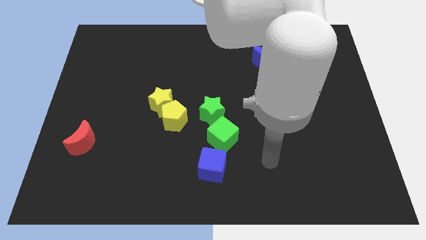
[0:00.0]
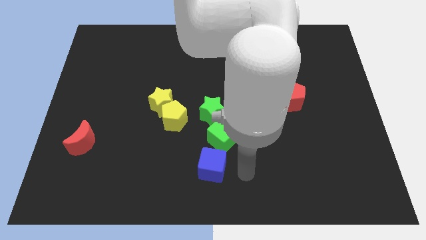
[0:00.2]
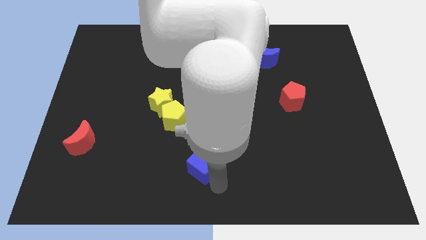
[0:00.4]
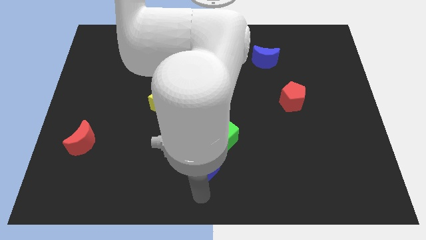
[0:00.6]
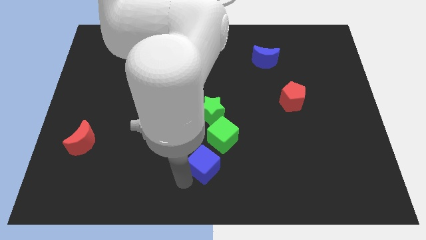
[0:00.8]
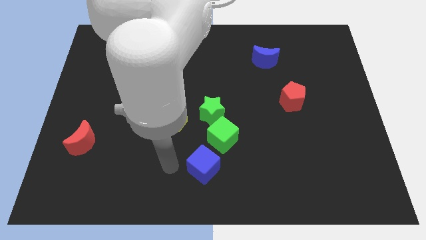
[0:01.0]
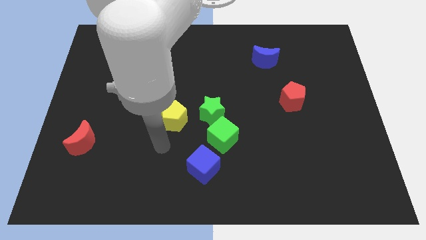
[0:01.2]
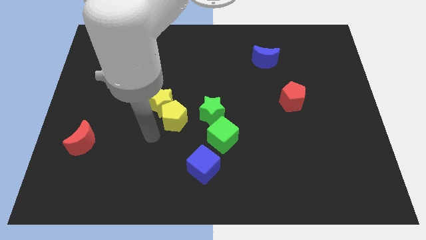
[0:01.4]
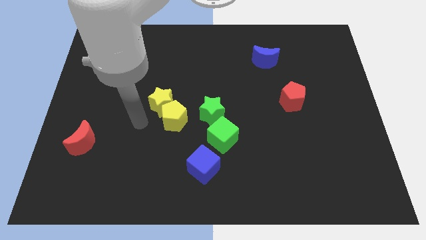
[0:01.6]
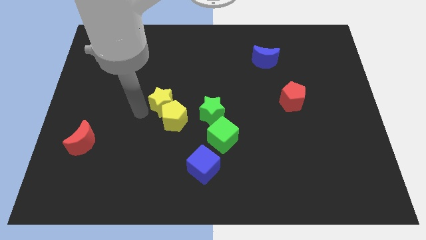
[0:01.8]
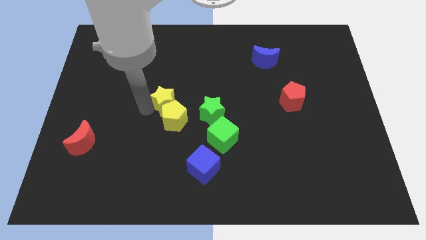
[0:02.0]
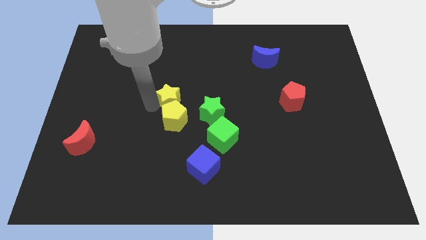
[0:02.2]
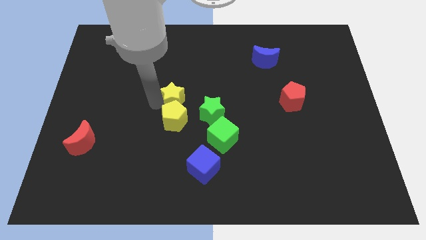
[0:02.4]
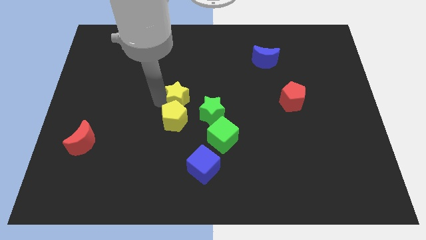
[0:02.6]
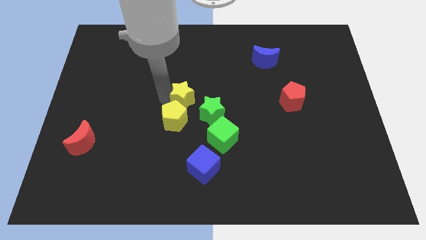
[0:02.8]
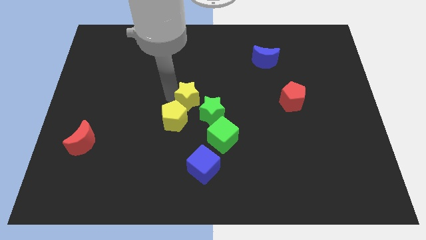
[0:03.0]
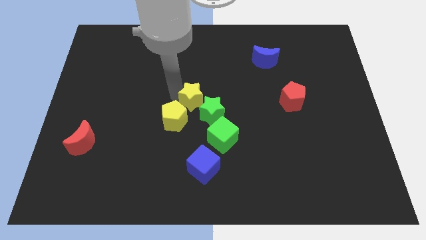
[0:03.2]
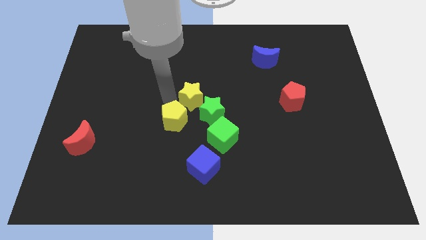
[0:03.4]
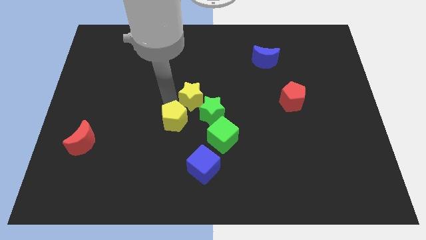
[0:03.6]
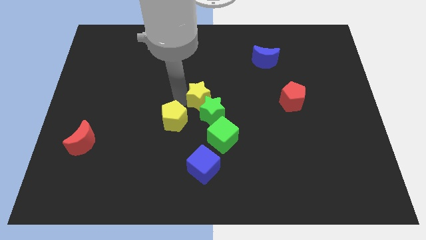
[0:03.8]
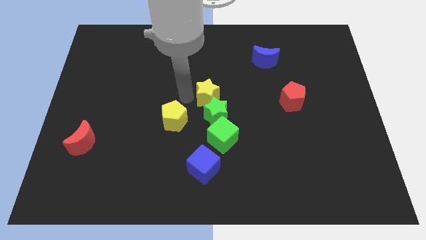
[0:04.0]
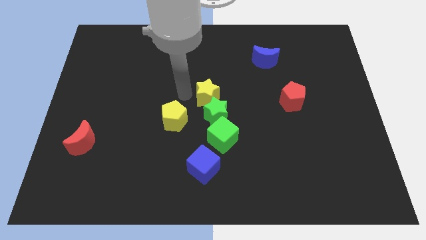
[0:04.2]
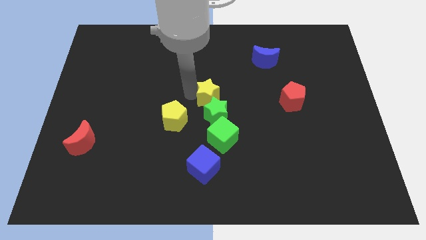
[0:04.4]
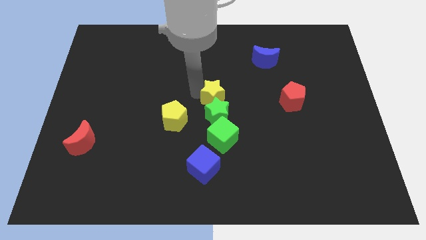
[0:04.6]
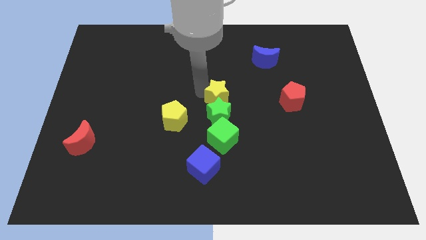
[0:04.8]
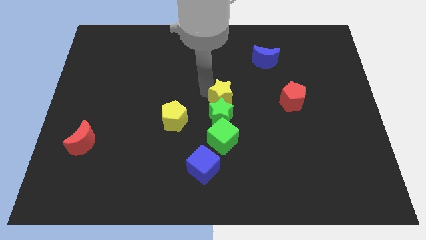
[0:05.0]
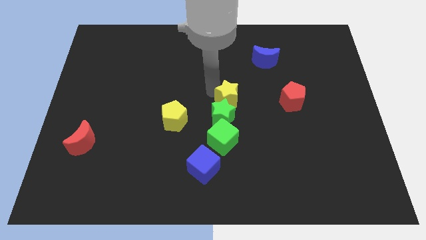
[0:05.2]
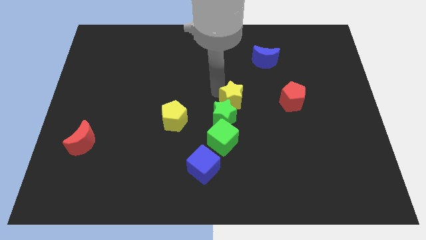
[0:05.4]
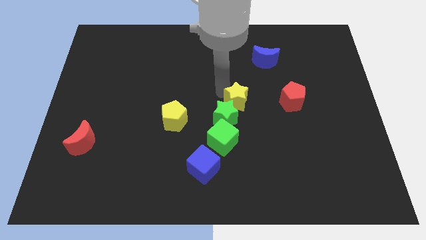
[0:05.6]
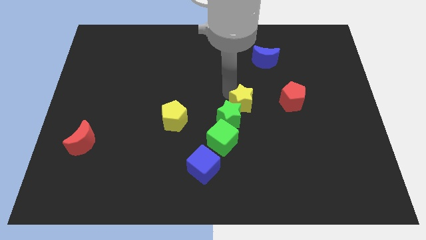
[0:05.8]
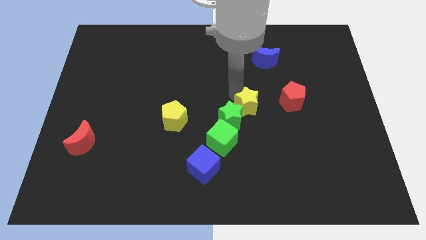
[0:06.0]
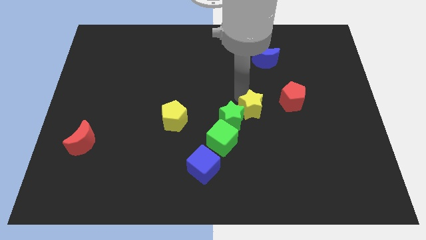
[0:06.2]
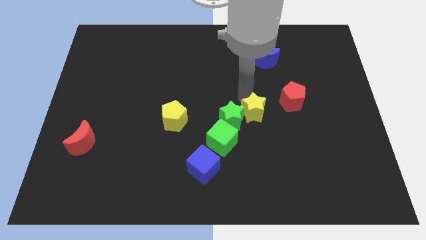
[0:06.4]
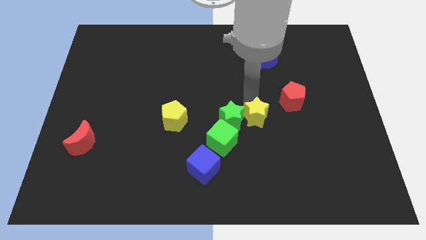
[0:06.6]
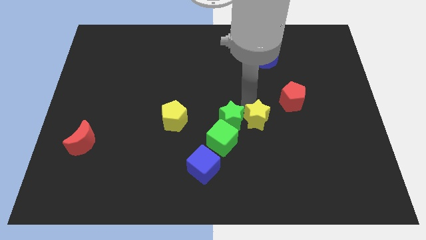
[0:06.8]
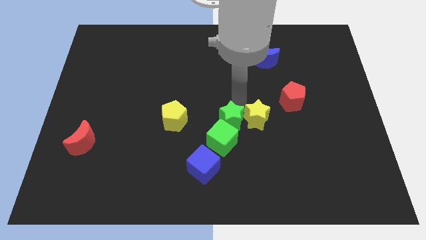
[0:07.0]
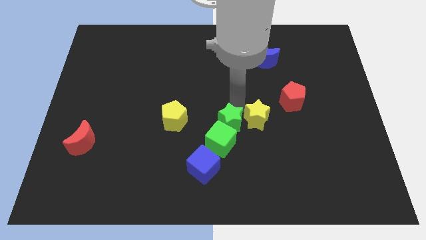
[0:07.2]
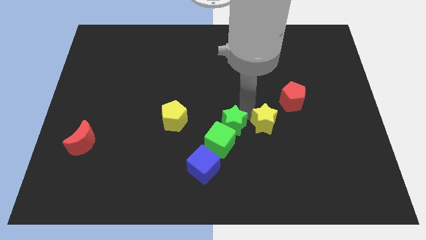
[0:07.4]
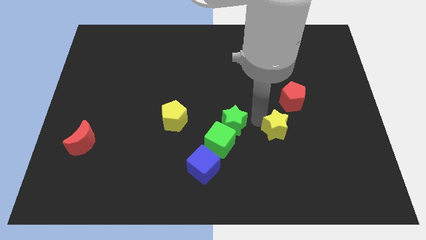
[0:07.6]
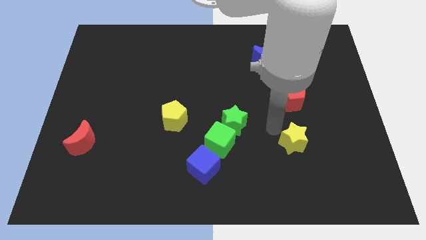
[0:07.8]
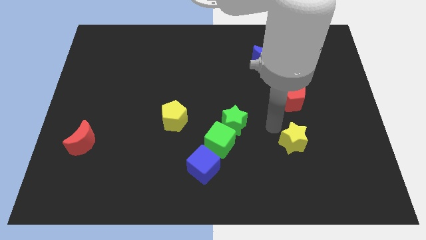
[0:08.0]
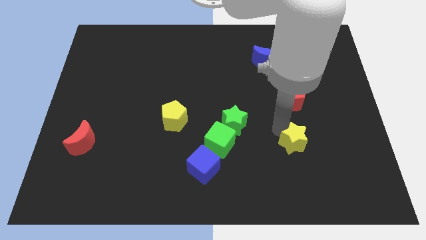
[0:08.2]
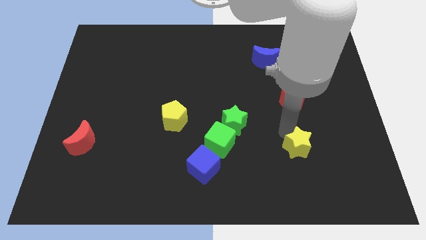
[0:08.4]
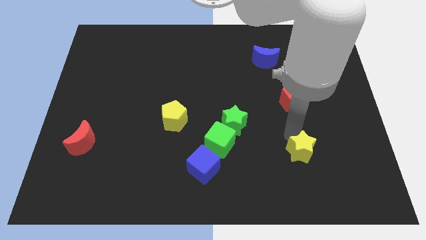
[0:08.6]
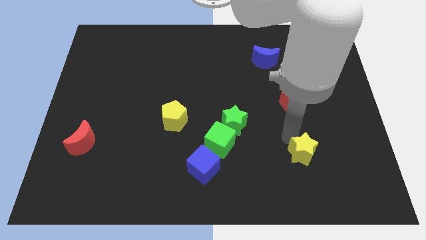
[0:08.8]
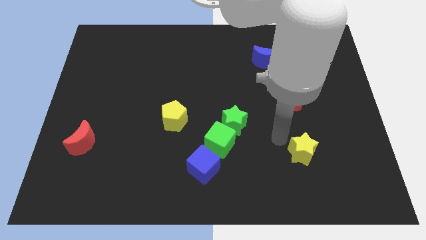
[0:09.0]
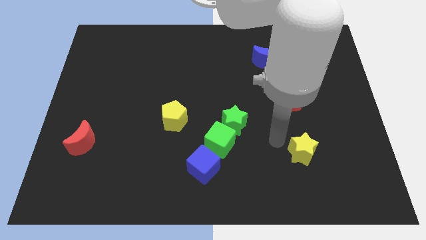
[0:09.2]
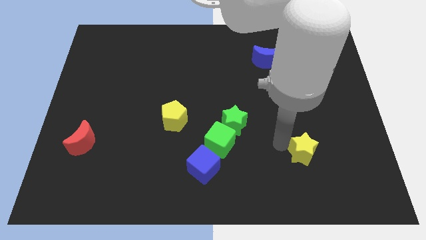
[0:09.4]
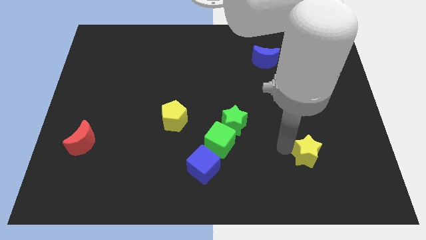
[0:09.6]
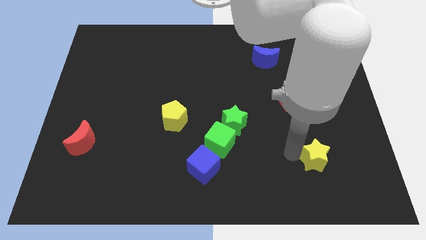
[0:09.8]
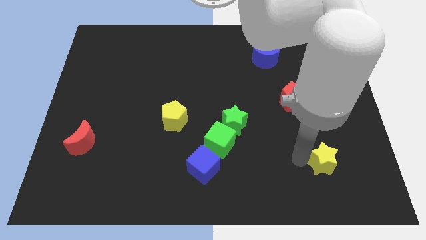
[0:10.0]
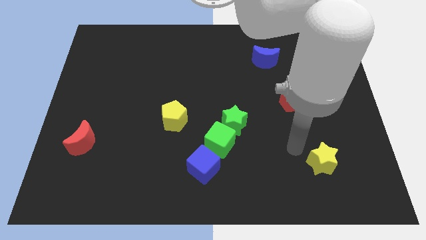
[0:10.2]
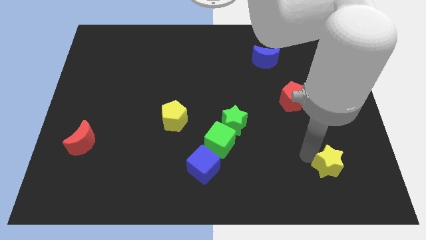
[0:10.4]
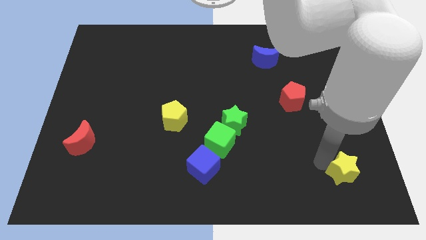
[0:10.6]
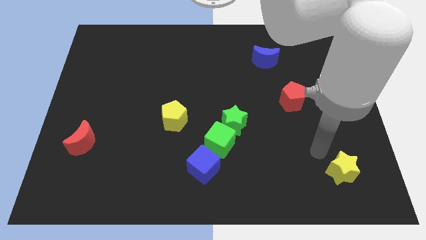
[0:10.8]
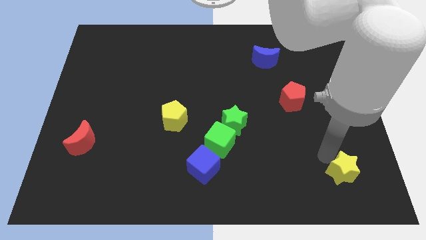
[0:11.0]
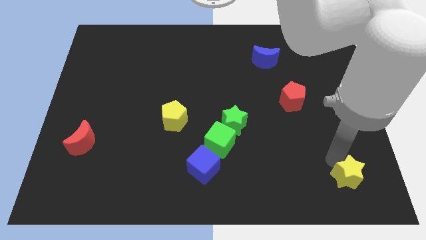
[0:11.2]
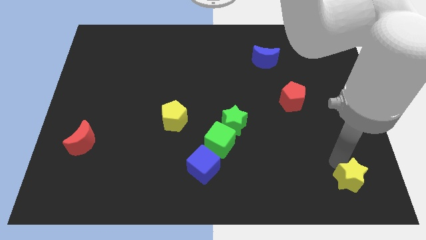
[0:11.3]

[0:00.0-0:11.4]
slide the yellow star to the bottom right

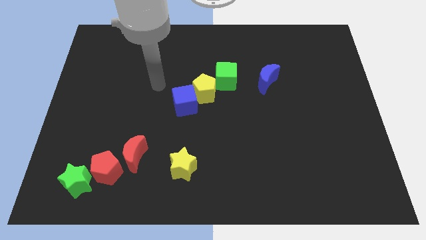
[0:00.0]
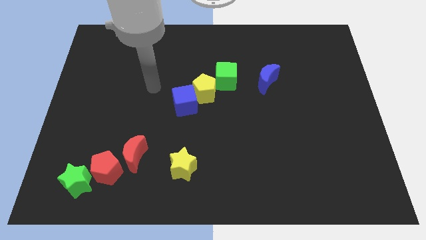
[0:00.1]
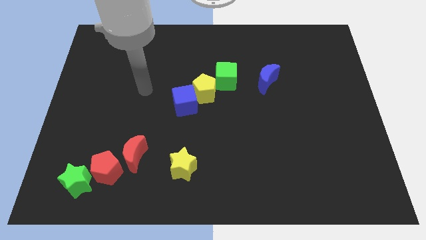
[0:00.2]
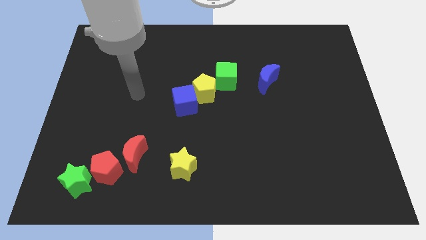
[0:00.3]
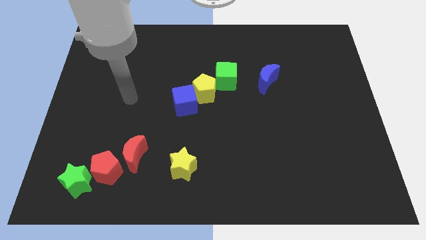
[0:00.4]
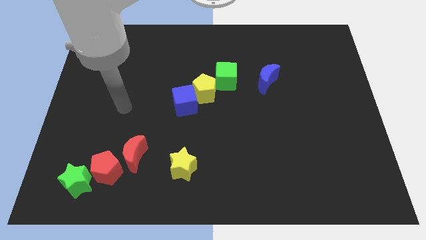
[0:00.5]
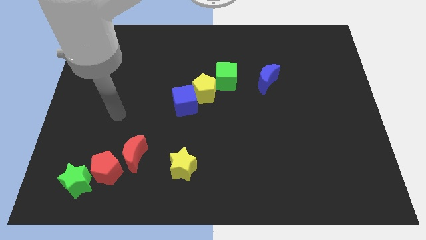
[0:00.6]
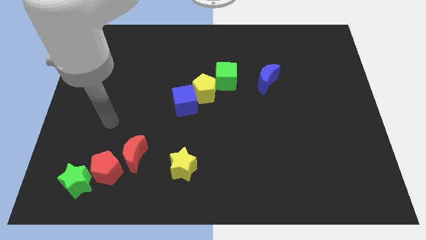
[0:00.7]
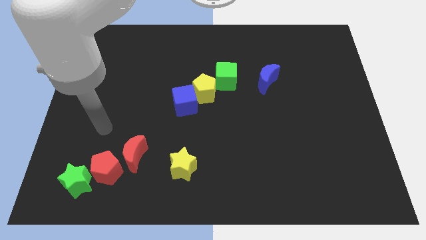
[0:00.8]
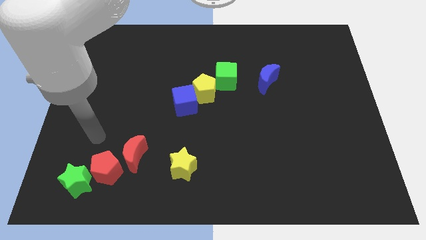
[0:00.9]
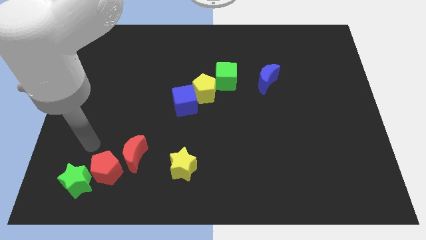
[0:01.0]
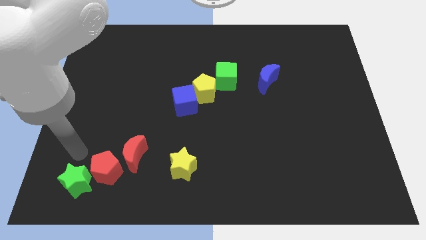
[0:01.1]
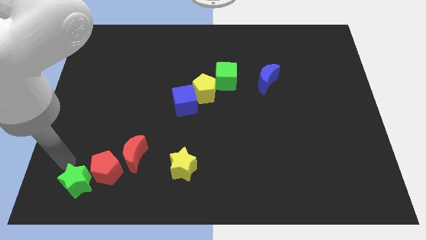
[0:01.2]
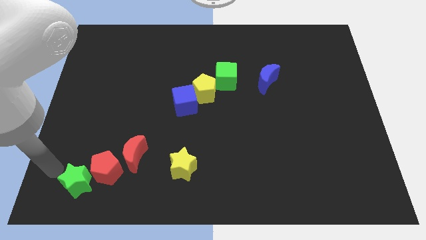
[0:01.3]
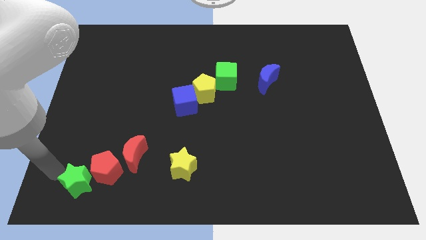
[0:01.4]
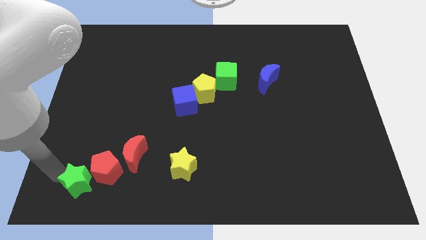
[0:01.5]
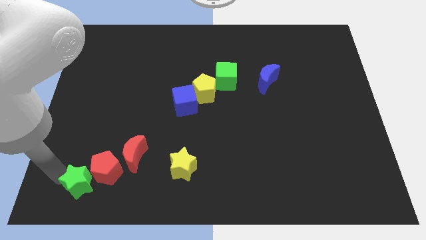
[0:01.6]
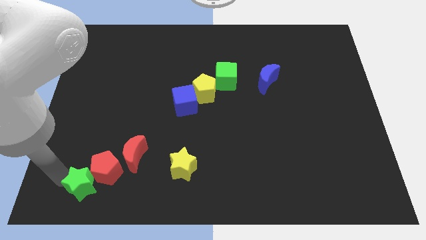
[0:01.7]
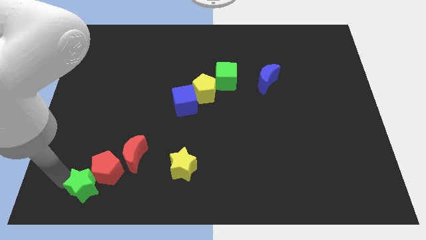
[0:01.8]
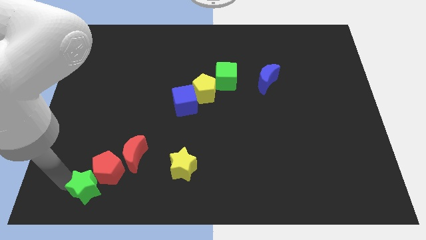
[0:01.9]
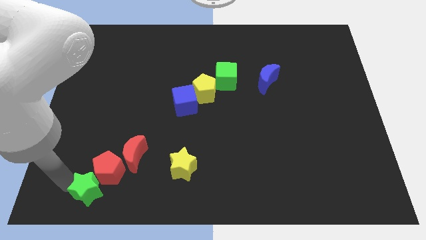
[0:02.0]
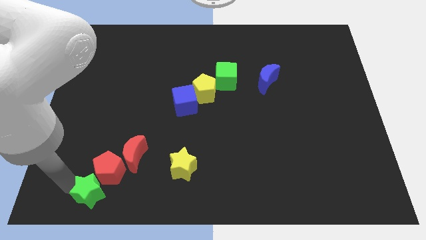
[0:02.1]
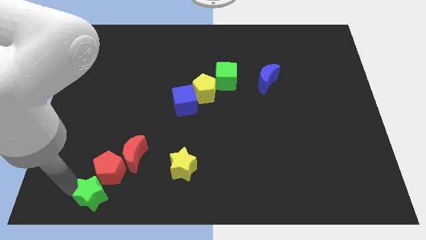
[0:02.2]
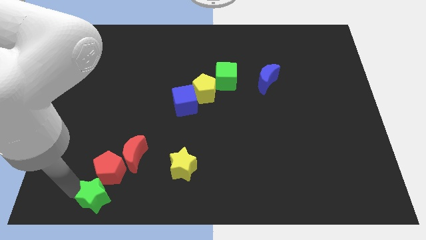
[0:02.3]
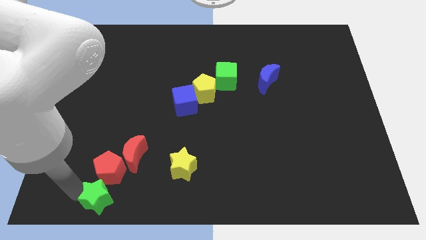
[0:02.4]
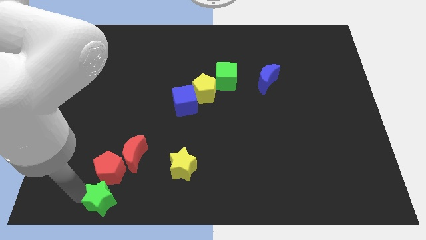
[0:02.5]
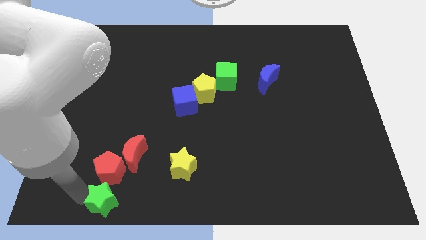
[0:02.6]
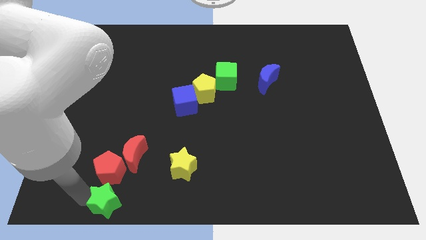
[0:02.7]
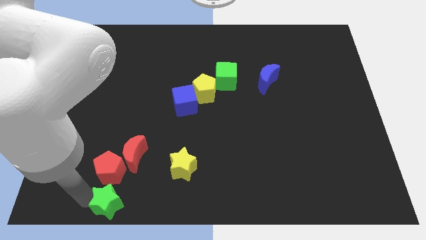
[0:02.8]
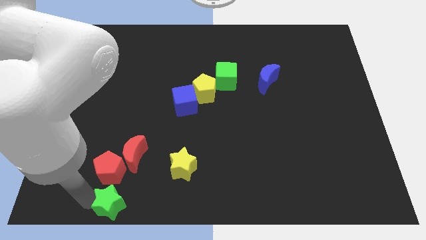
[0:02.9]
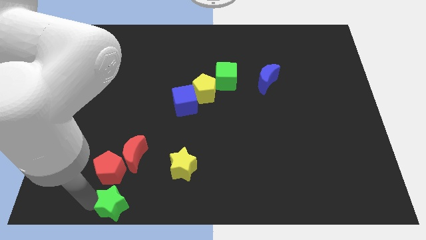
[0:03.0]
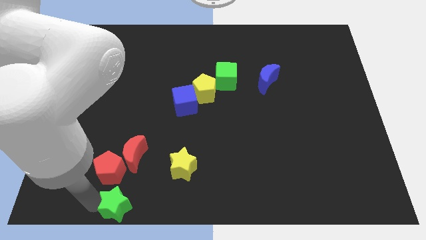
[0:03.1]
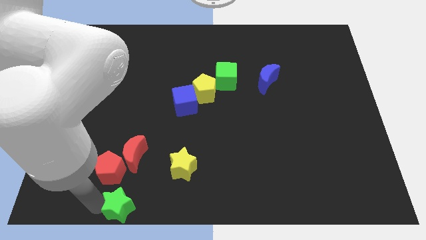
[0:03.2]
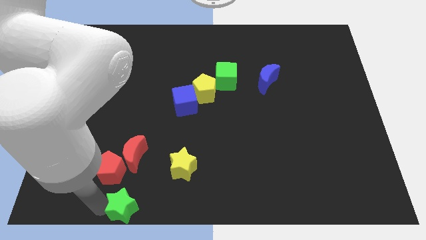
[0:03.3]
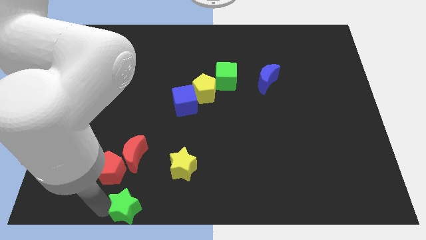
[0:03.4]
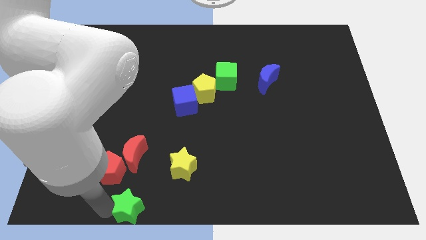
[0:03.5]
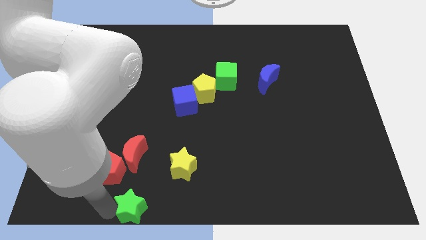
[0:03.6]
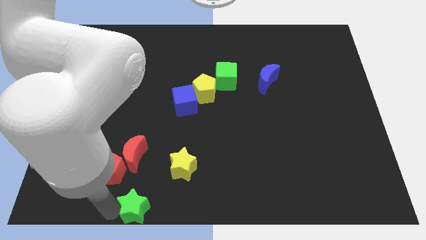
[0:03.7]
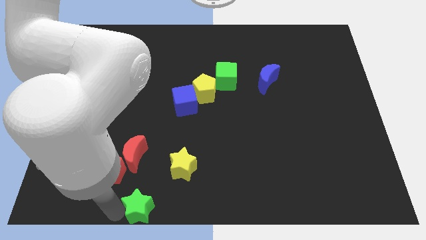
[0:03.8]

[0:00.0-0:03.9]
move the green star to the bottom
